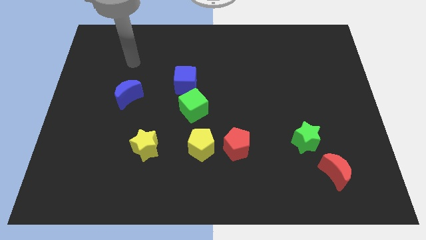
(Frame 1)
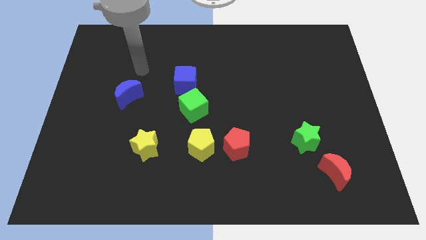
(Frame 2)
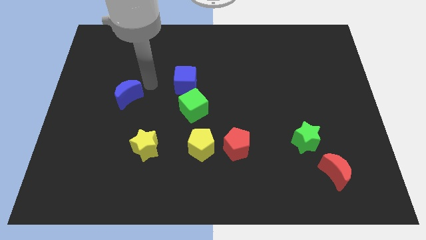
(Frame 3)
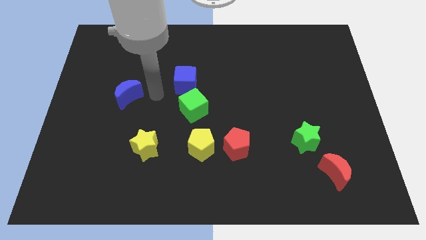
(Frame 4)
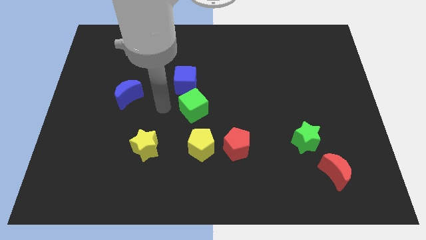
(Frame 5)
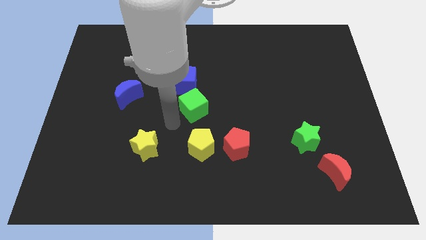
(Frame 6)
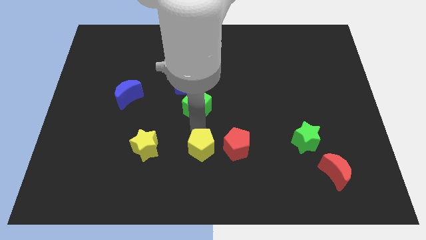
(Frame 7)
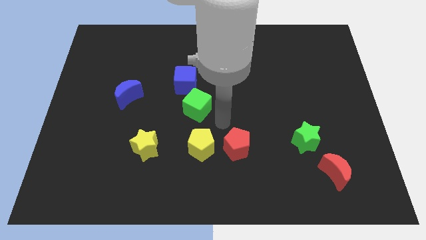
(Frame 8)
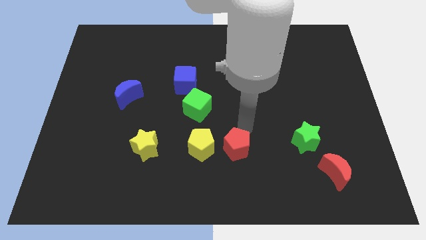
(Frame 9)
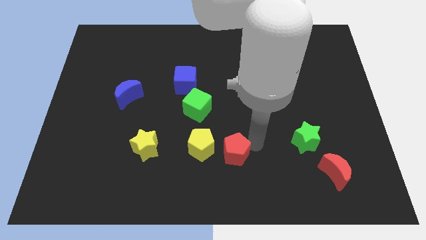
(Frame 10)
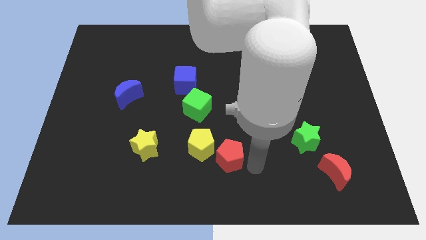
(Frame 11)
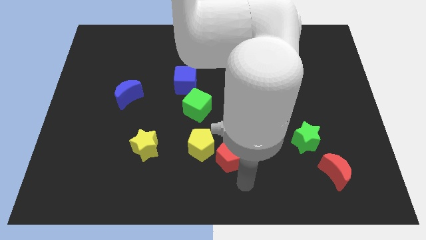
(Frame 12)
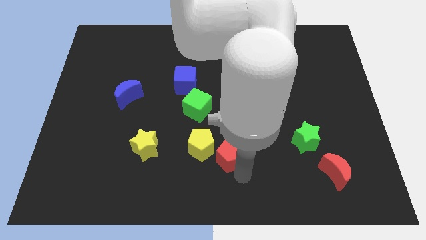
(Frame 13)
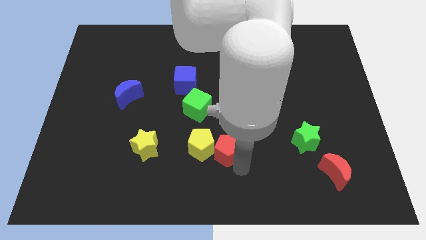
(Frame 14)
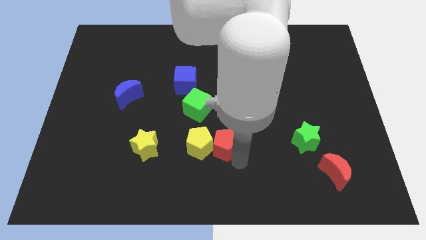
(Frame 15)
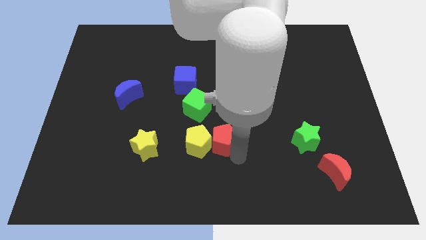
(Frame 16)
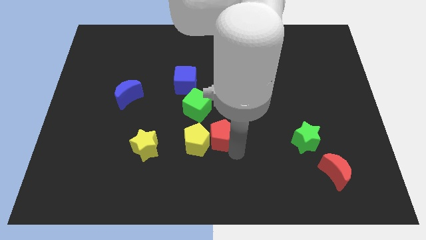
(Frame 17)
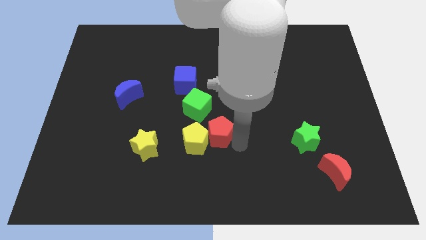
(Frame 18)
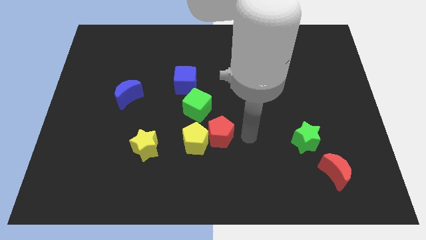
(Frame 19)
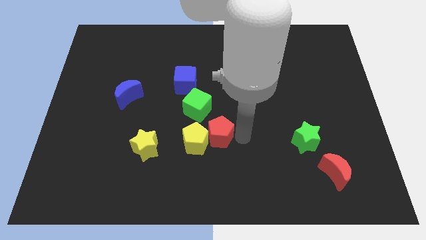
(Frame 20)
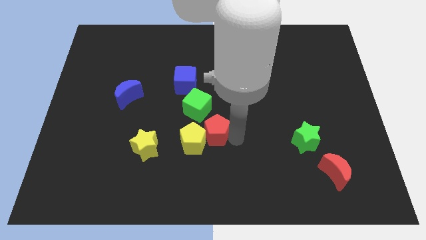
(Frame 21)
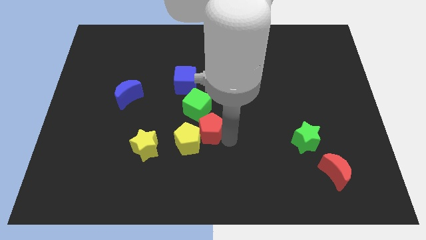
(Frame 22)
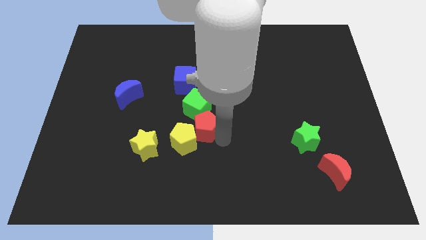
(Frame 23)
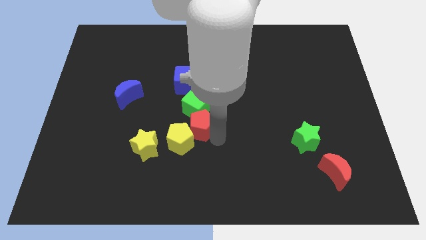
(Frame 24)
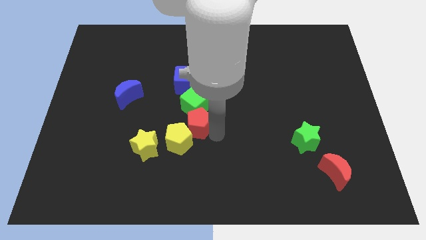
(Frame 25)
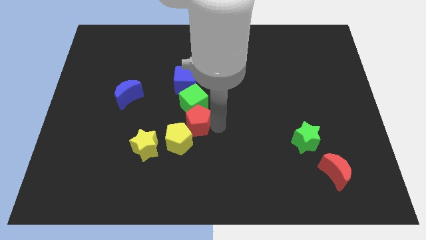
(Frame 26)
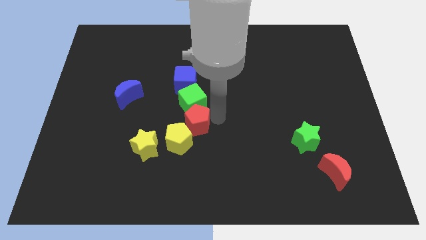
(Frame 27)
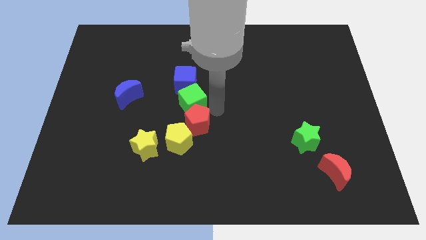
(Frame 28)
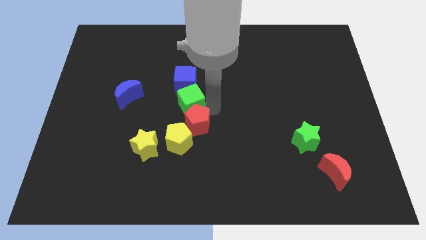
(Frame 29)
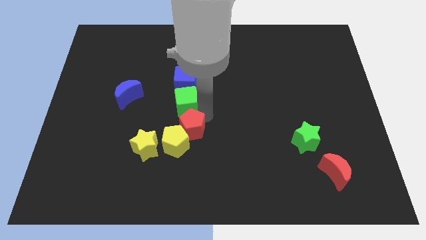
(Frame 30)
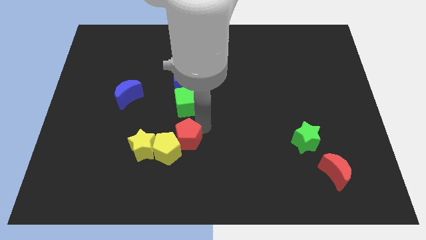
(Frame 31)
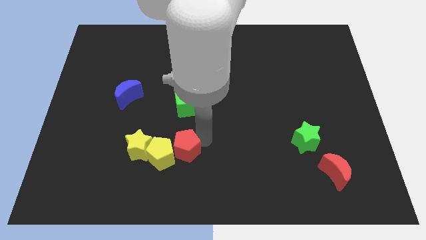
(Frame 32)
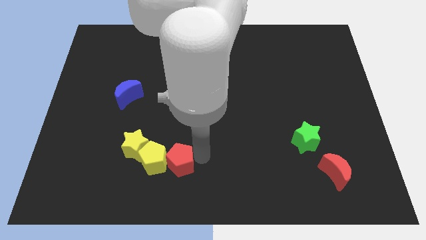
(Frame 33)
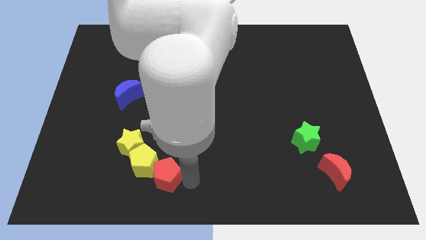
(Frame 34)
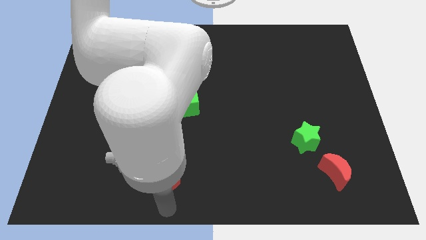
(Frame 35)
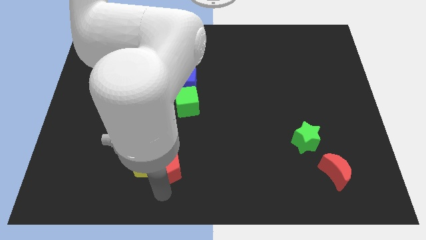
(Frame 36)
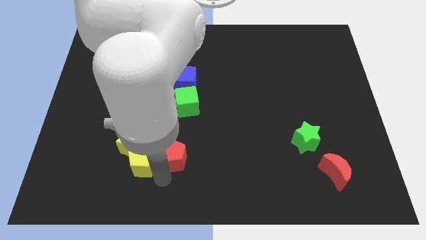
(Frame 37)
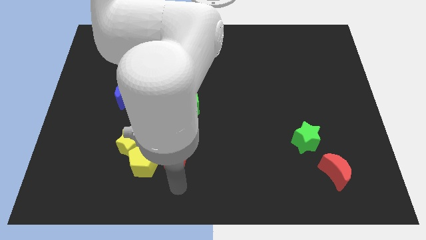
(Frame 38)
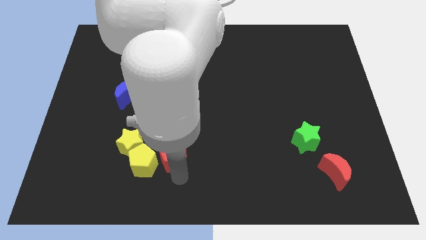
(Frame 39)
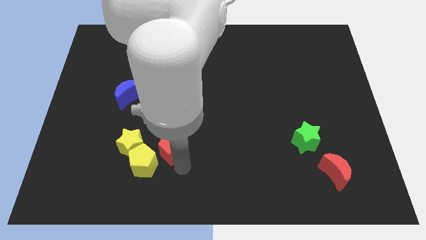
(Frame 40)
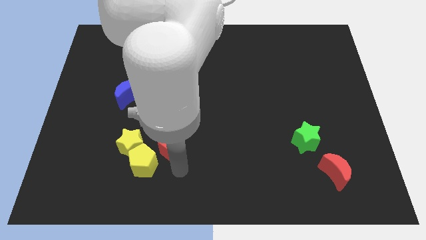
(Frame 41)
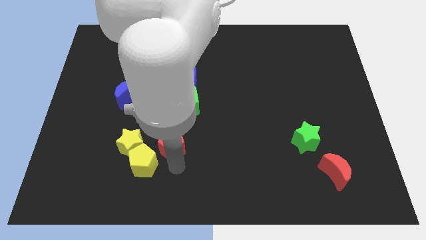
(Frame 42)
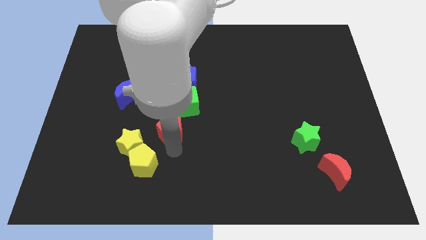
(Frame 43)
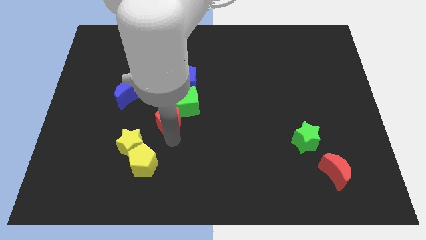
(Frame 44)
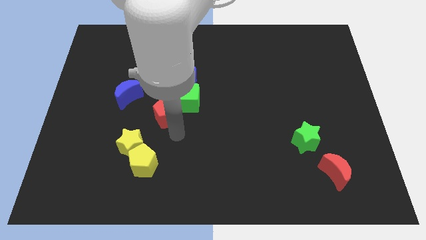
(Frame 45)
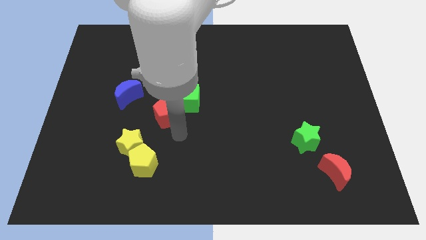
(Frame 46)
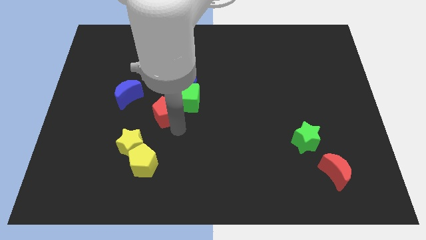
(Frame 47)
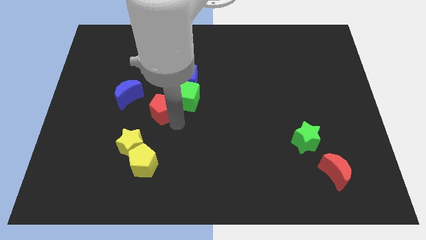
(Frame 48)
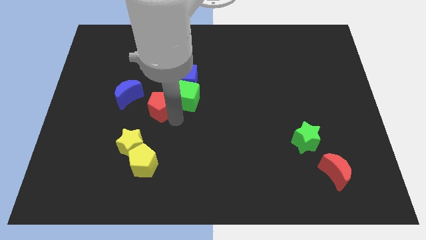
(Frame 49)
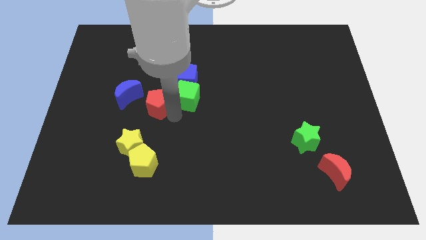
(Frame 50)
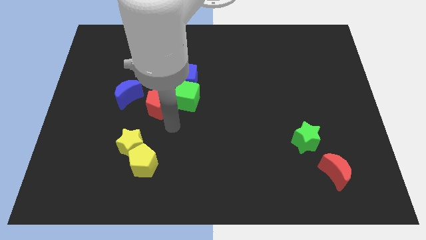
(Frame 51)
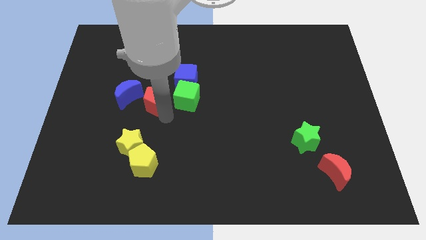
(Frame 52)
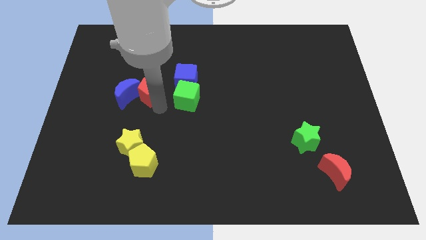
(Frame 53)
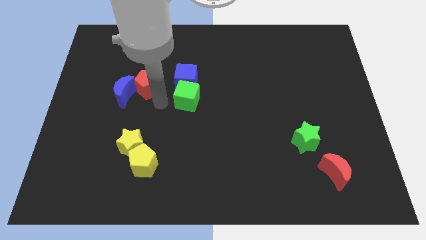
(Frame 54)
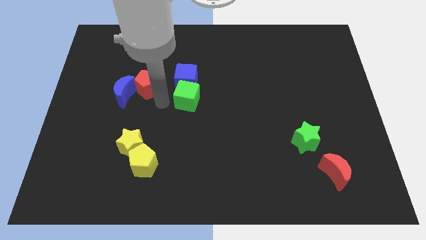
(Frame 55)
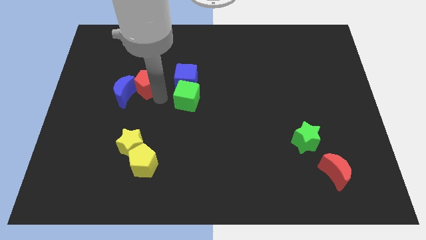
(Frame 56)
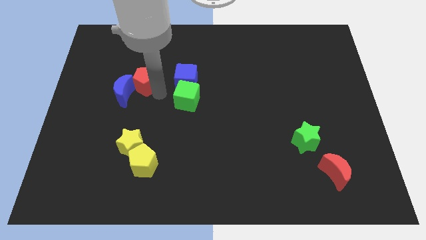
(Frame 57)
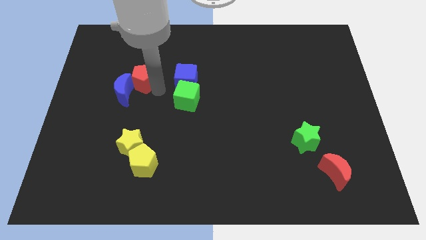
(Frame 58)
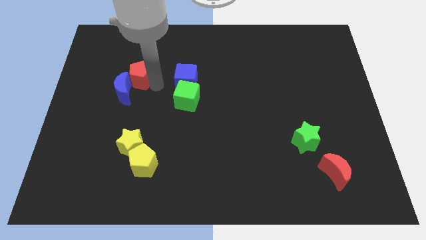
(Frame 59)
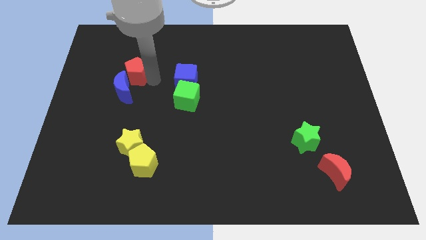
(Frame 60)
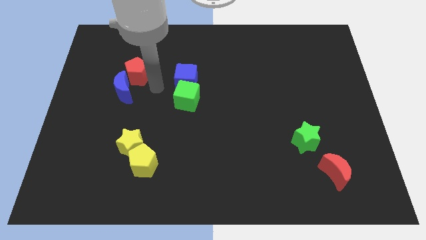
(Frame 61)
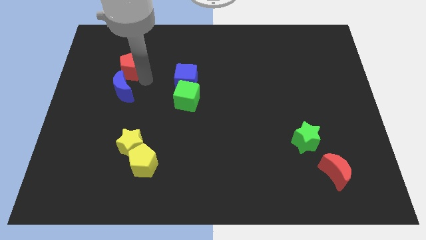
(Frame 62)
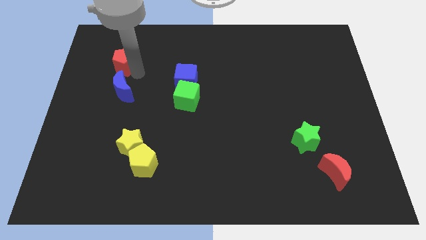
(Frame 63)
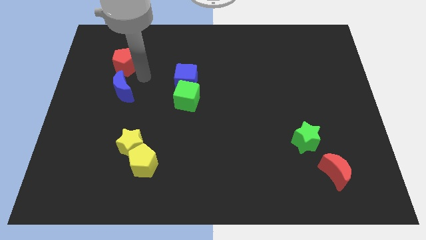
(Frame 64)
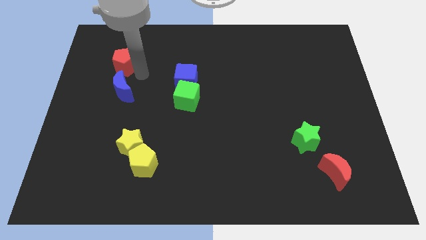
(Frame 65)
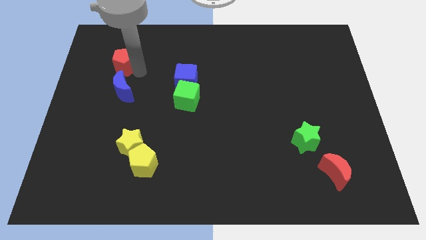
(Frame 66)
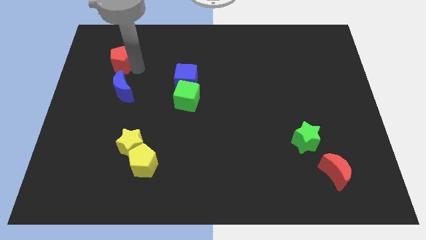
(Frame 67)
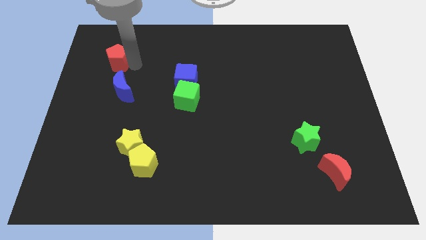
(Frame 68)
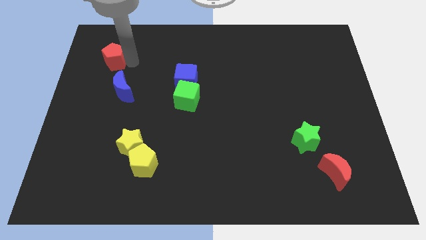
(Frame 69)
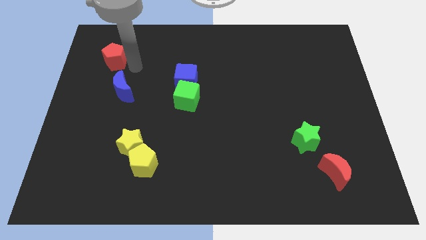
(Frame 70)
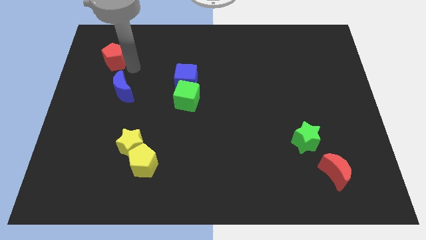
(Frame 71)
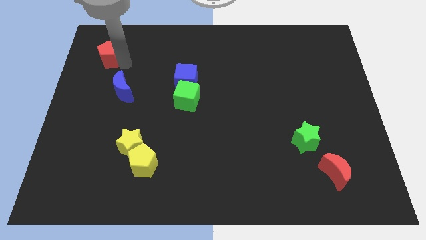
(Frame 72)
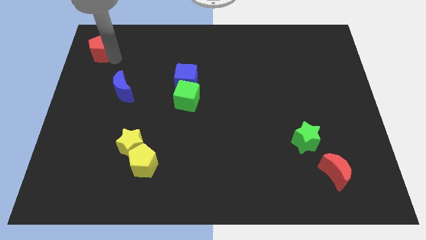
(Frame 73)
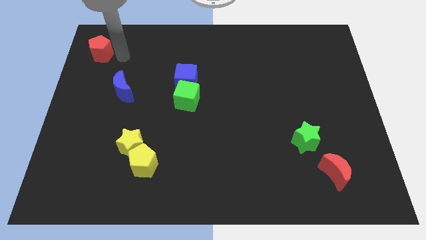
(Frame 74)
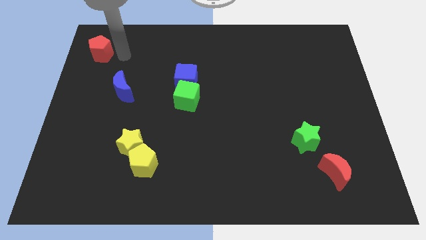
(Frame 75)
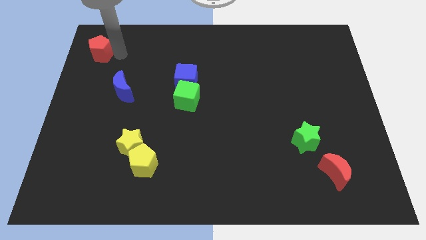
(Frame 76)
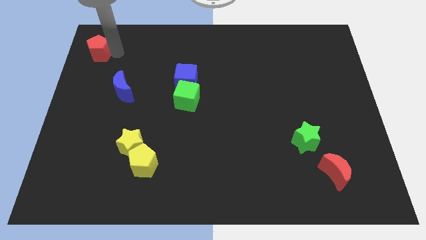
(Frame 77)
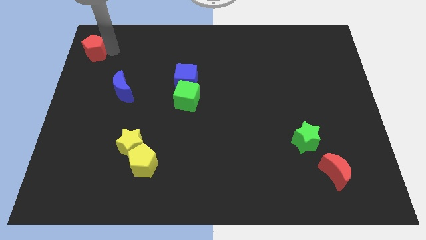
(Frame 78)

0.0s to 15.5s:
slide the red pentagon to the top left
